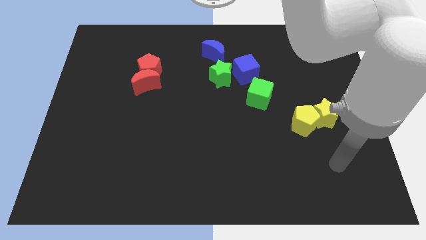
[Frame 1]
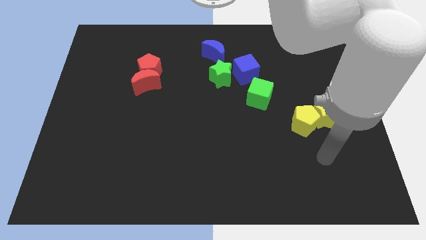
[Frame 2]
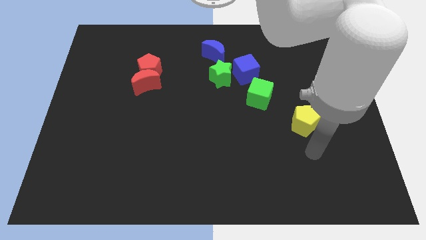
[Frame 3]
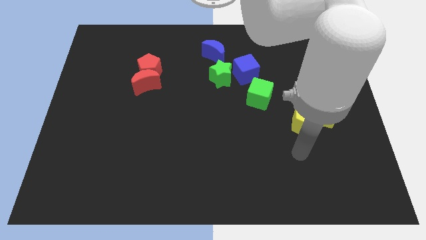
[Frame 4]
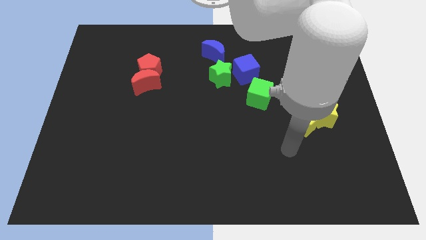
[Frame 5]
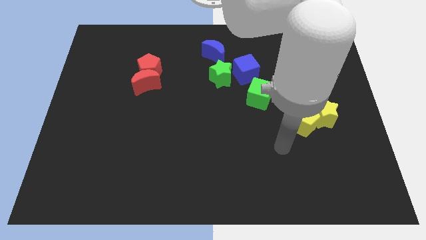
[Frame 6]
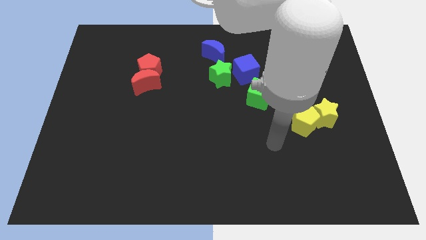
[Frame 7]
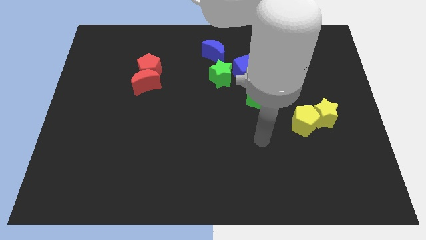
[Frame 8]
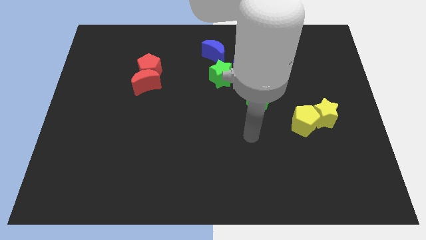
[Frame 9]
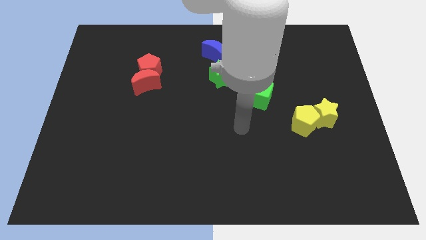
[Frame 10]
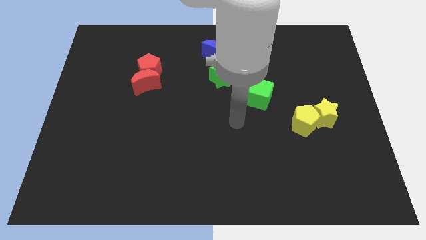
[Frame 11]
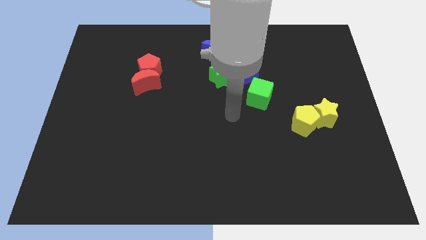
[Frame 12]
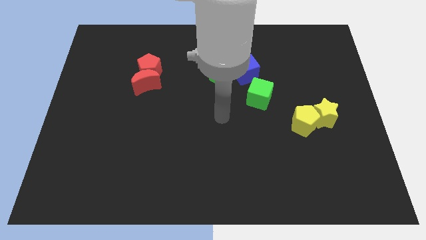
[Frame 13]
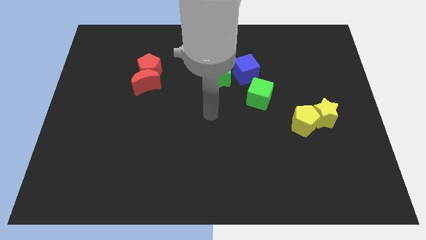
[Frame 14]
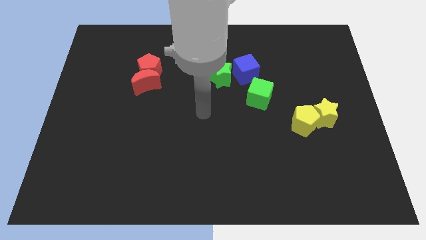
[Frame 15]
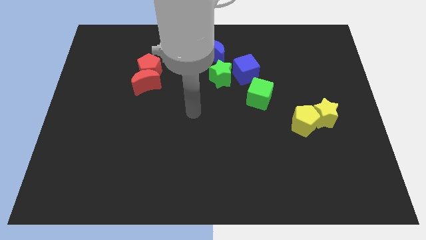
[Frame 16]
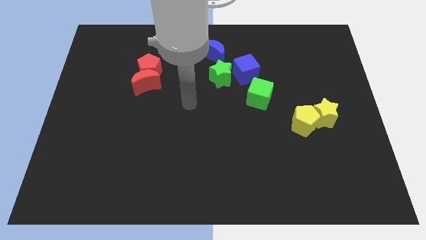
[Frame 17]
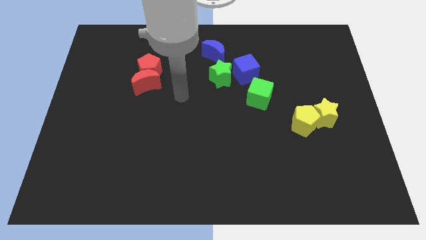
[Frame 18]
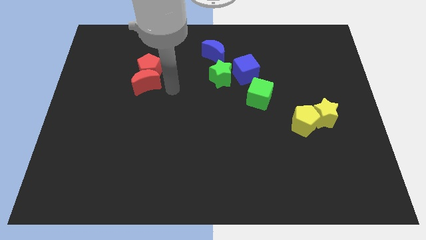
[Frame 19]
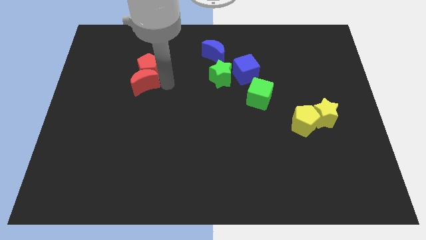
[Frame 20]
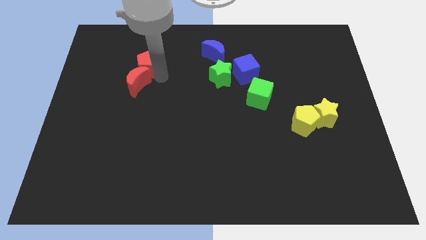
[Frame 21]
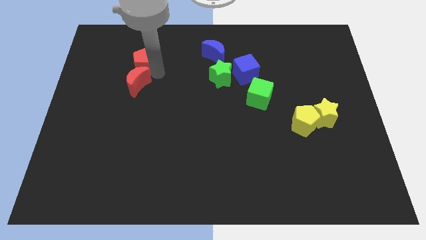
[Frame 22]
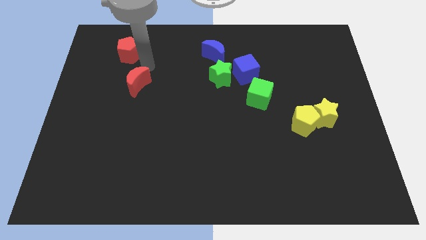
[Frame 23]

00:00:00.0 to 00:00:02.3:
separate the red moon from the red pentagon

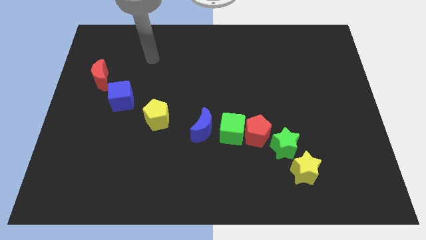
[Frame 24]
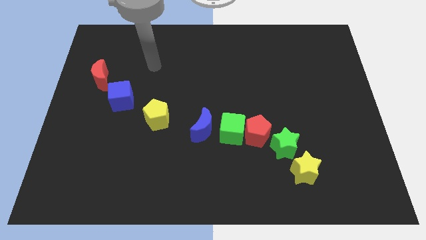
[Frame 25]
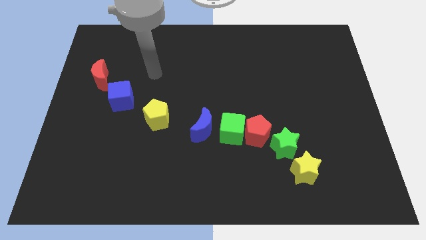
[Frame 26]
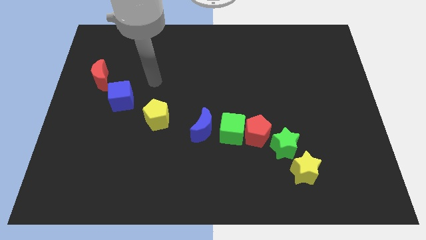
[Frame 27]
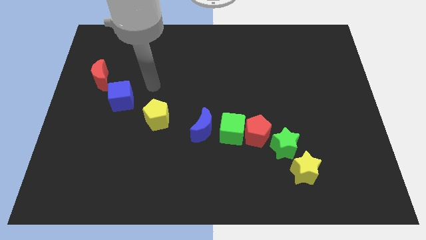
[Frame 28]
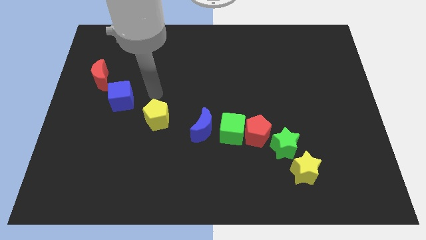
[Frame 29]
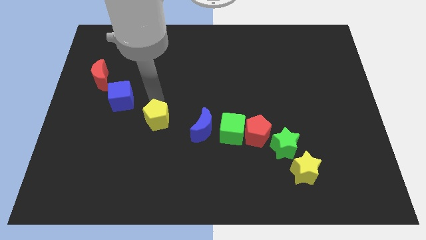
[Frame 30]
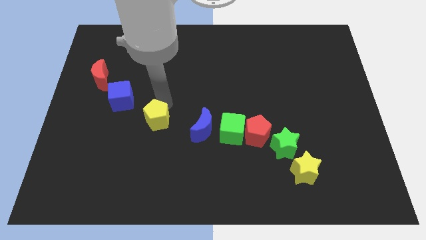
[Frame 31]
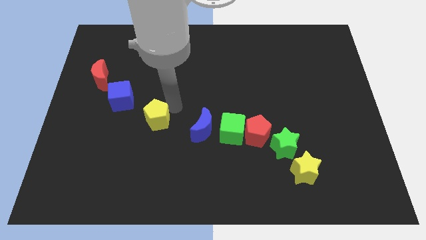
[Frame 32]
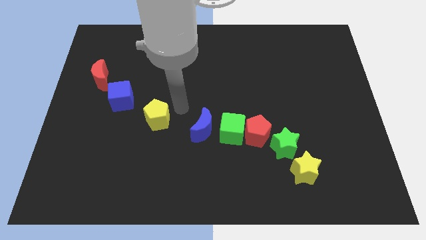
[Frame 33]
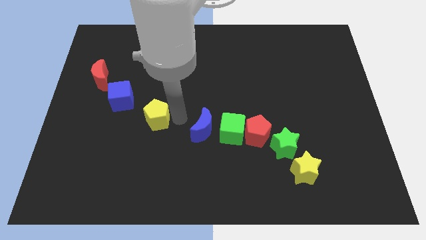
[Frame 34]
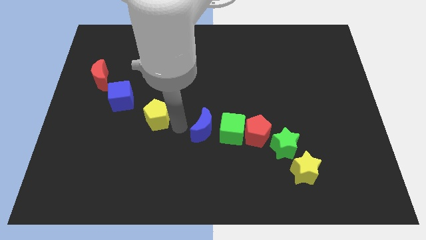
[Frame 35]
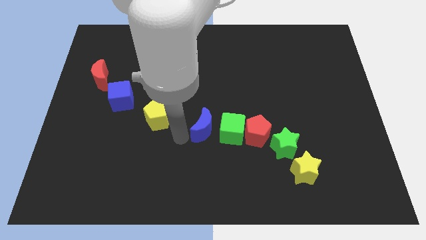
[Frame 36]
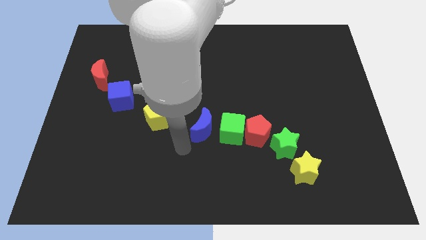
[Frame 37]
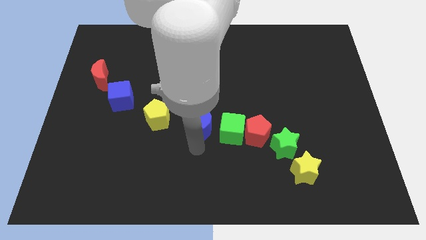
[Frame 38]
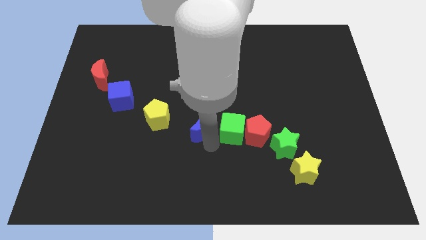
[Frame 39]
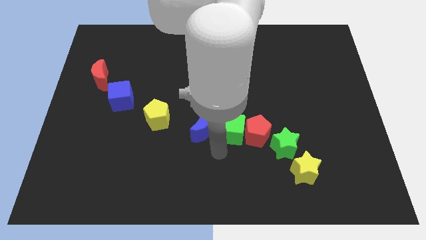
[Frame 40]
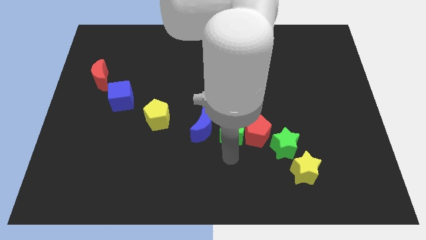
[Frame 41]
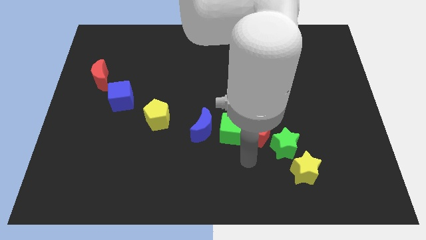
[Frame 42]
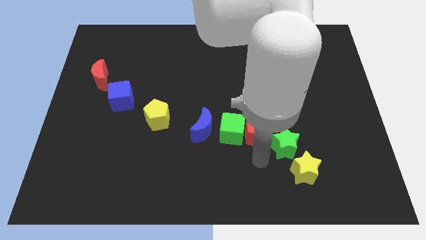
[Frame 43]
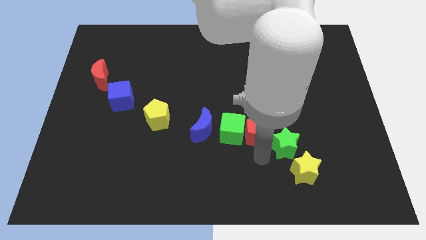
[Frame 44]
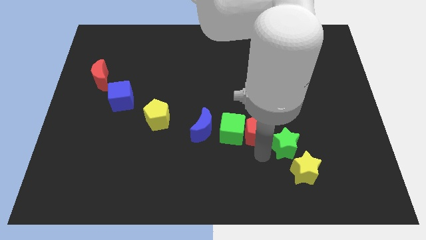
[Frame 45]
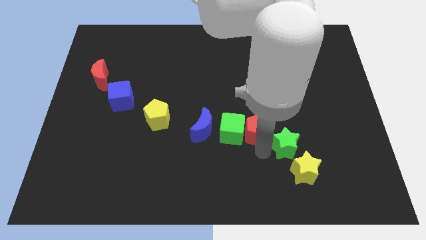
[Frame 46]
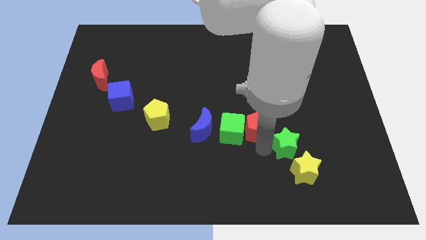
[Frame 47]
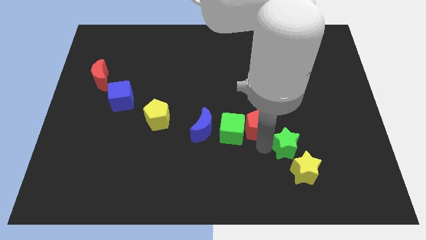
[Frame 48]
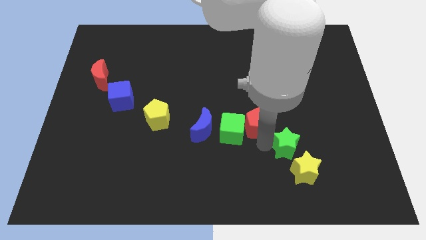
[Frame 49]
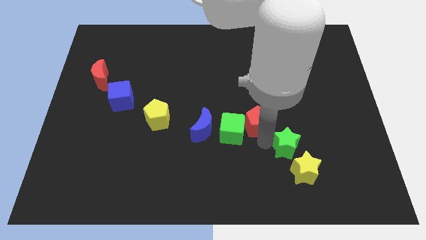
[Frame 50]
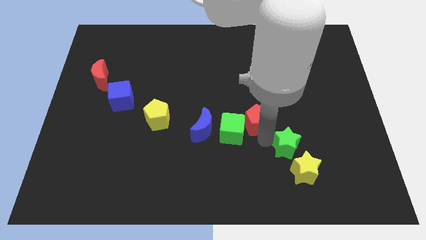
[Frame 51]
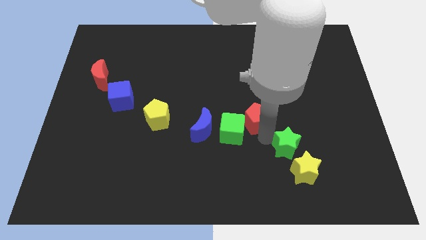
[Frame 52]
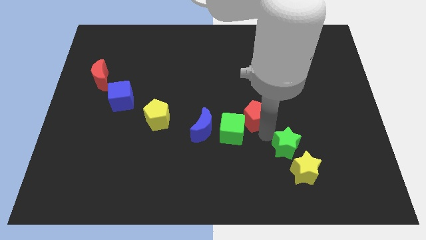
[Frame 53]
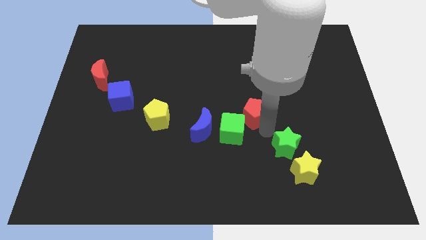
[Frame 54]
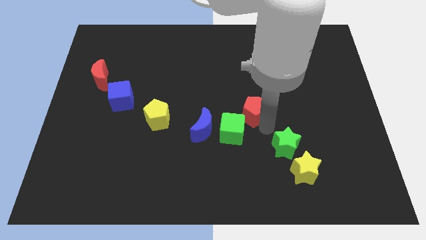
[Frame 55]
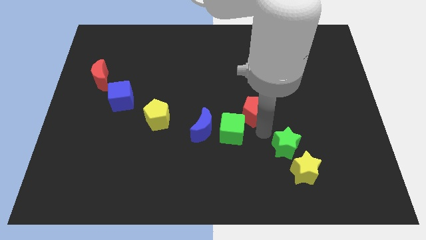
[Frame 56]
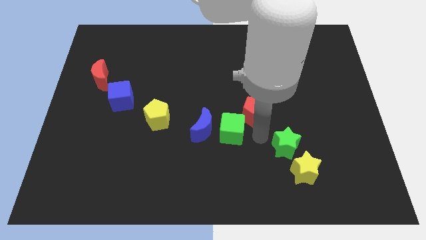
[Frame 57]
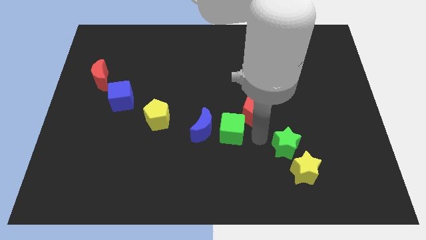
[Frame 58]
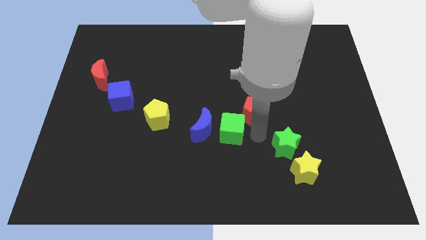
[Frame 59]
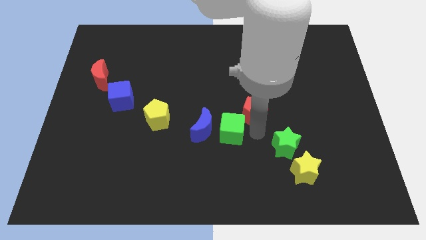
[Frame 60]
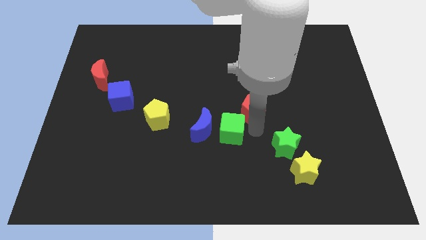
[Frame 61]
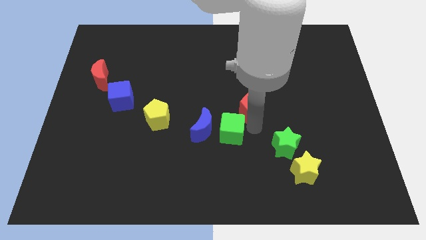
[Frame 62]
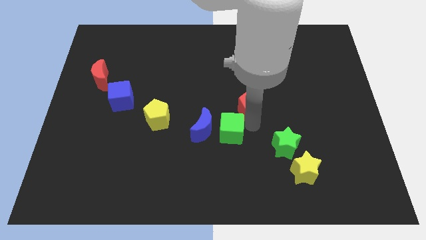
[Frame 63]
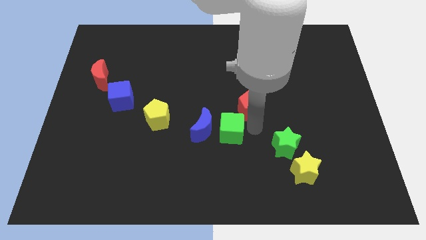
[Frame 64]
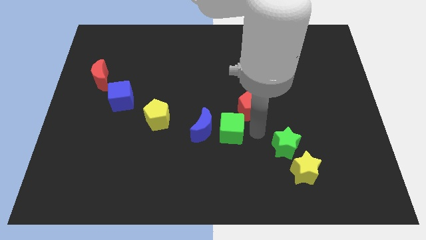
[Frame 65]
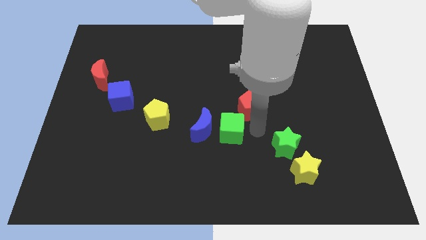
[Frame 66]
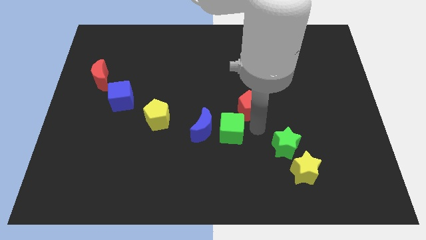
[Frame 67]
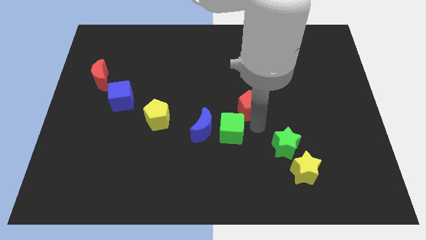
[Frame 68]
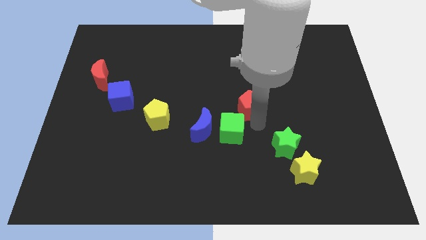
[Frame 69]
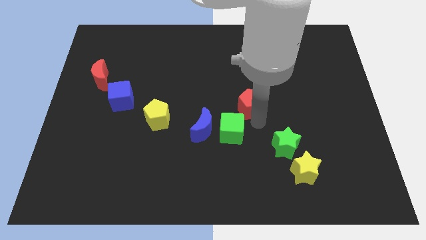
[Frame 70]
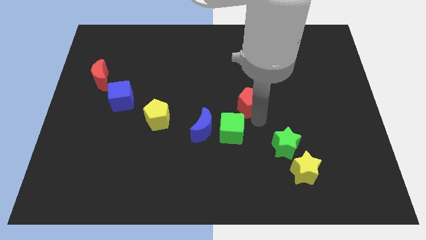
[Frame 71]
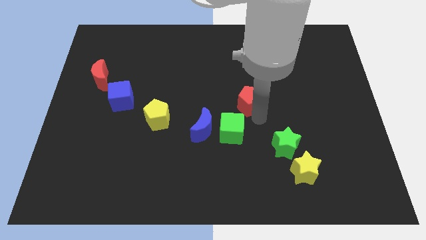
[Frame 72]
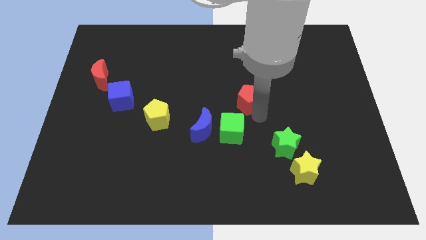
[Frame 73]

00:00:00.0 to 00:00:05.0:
separate the red pentagon from the green cube and green star

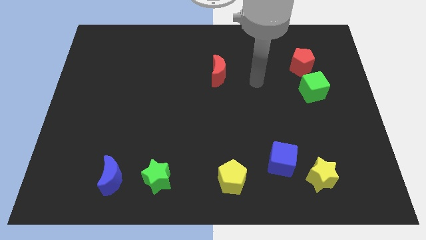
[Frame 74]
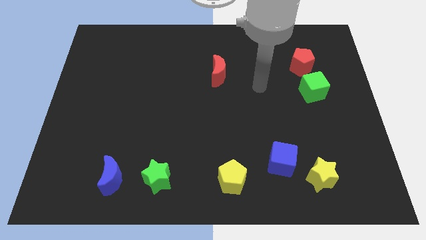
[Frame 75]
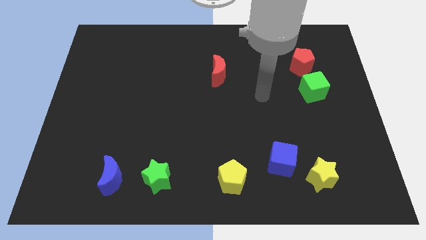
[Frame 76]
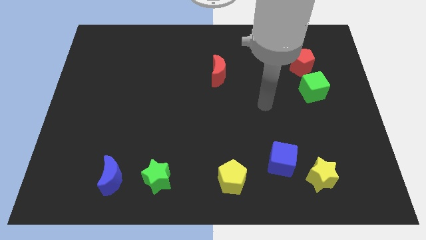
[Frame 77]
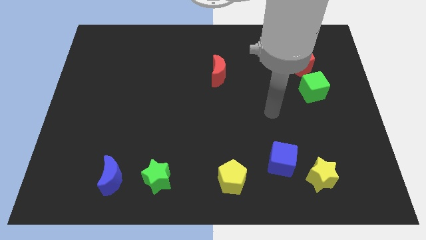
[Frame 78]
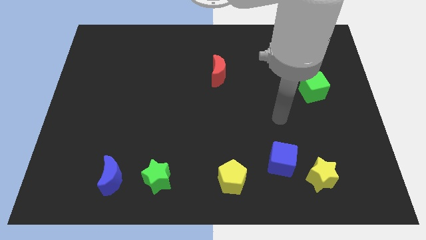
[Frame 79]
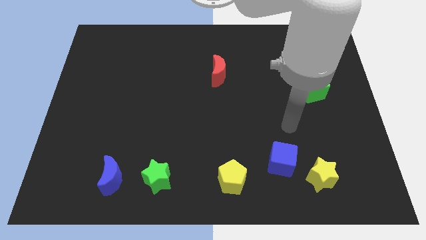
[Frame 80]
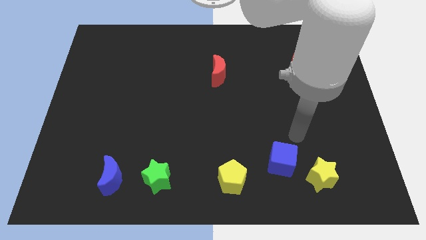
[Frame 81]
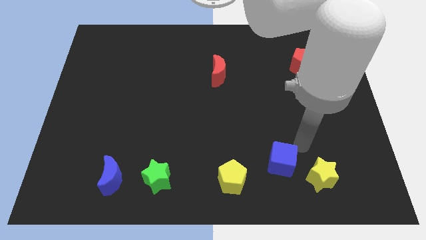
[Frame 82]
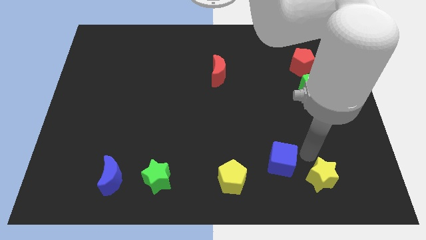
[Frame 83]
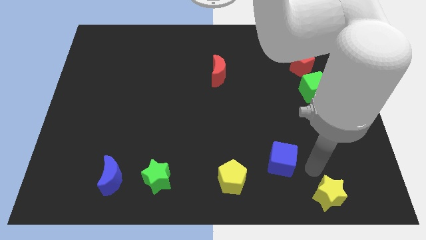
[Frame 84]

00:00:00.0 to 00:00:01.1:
move the blue cube away from the yellow star

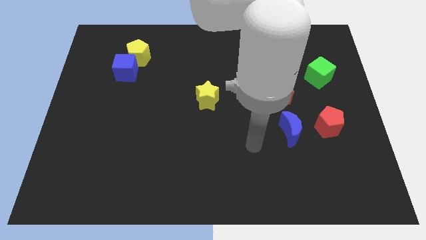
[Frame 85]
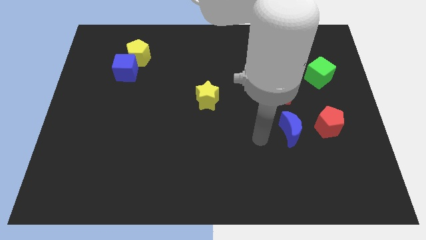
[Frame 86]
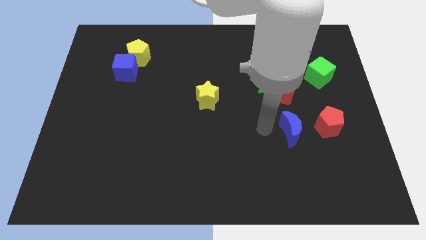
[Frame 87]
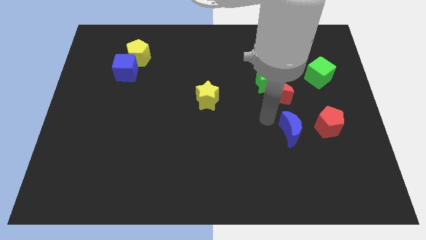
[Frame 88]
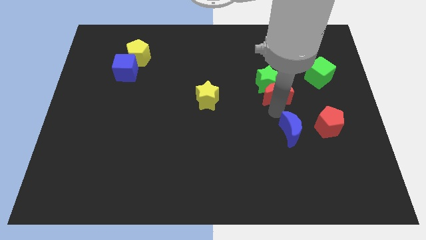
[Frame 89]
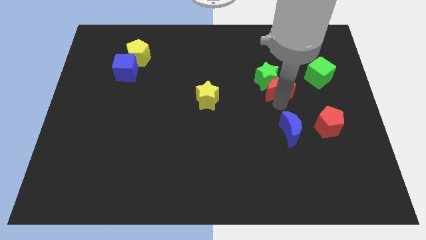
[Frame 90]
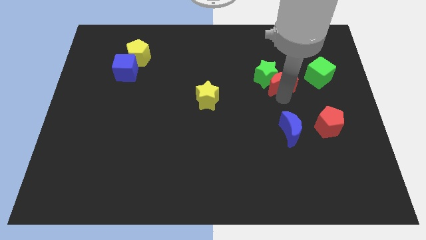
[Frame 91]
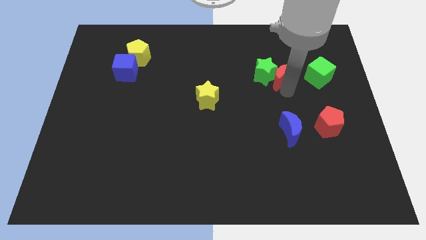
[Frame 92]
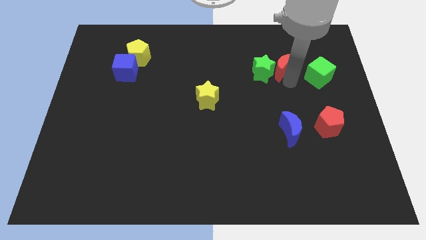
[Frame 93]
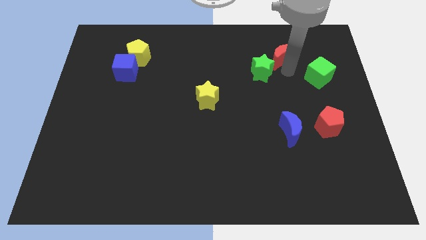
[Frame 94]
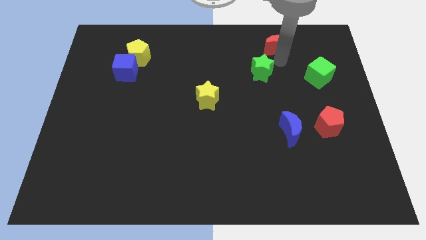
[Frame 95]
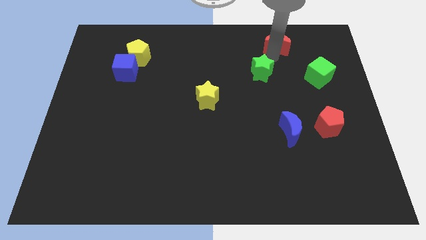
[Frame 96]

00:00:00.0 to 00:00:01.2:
move the green star away from the red moon
